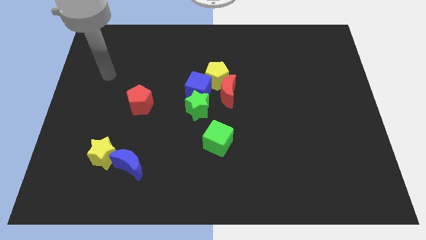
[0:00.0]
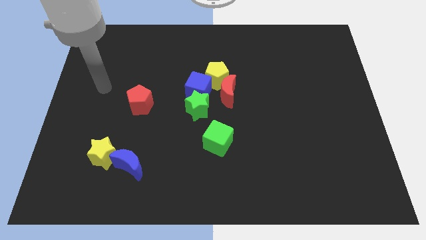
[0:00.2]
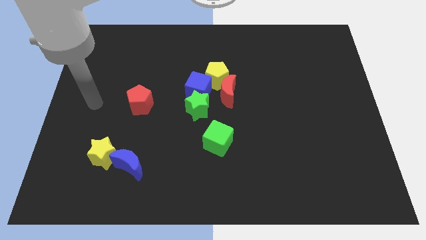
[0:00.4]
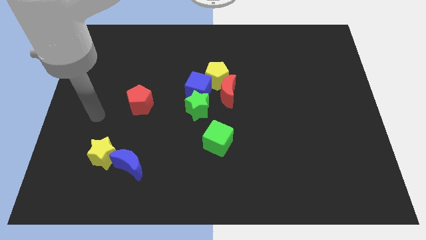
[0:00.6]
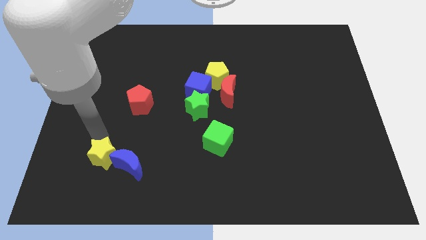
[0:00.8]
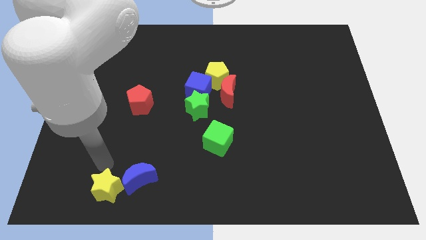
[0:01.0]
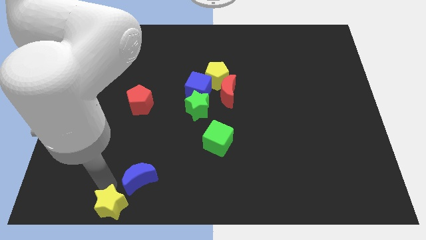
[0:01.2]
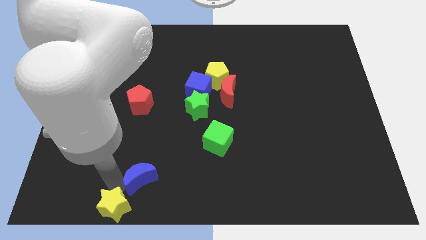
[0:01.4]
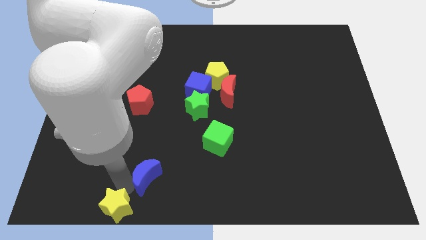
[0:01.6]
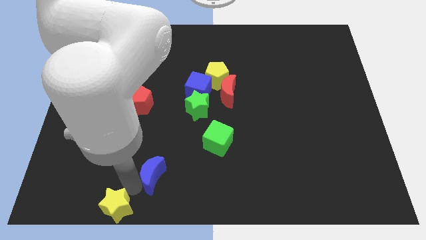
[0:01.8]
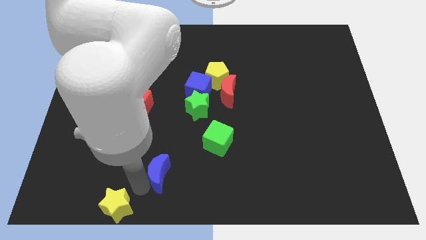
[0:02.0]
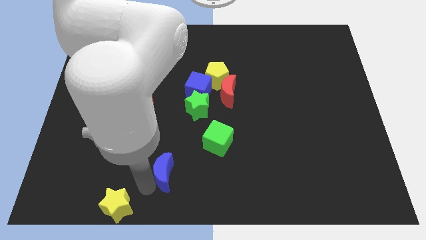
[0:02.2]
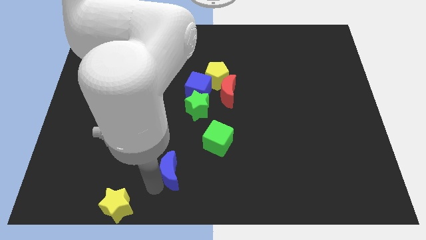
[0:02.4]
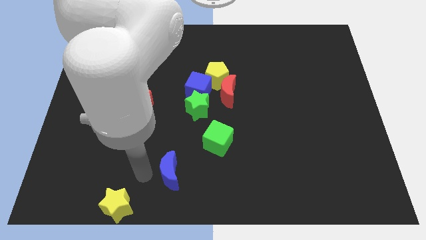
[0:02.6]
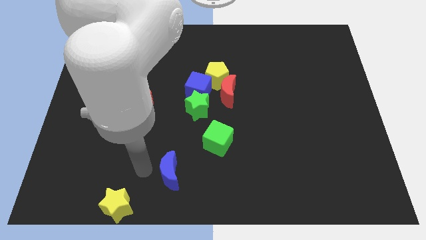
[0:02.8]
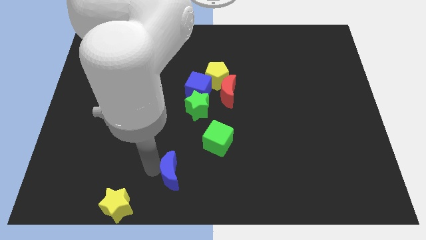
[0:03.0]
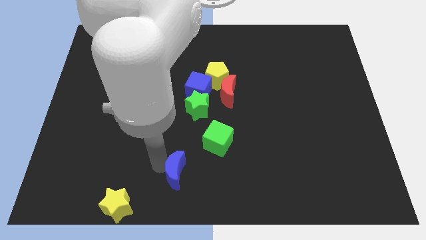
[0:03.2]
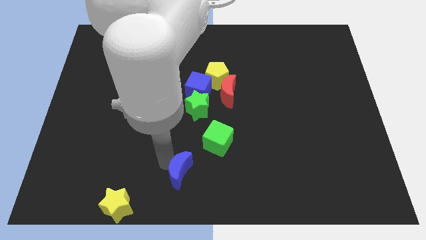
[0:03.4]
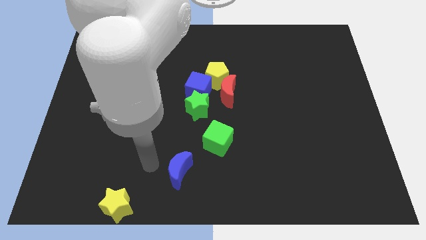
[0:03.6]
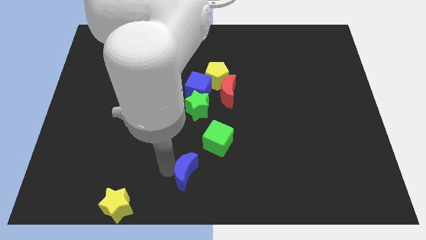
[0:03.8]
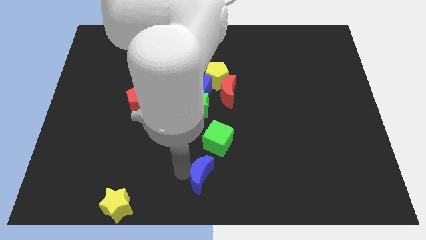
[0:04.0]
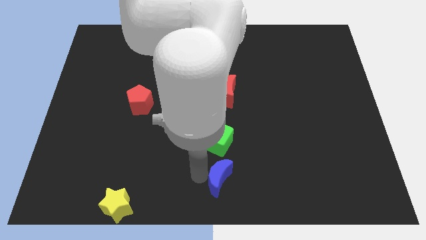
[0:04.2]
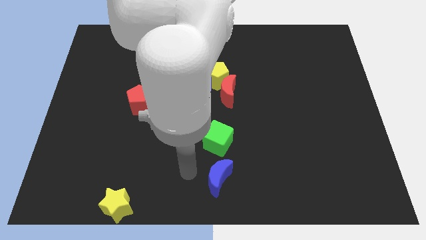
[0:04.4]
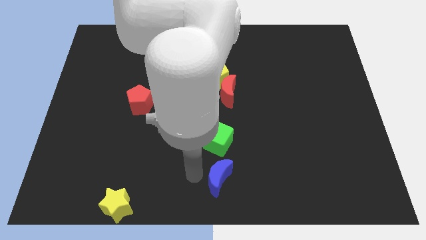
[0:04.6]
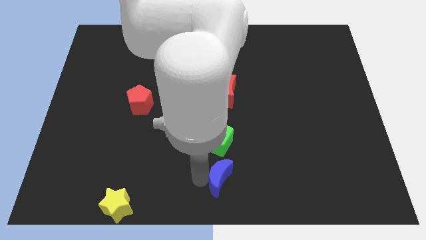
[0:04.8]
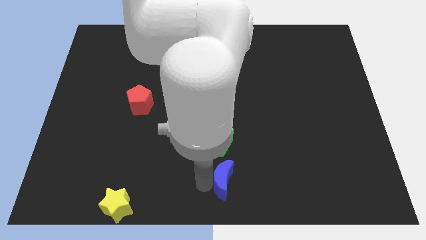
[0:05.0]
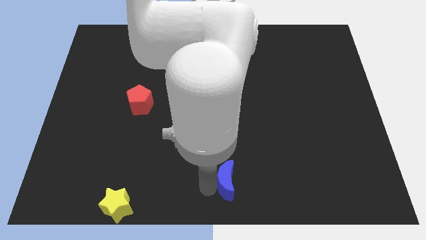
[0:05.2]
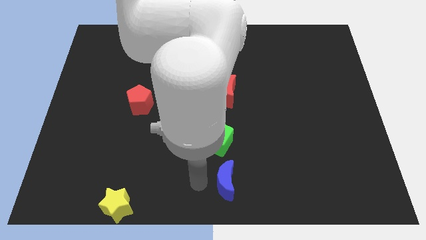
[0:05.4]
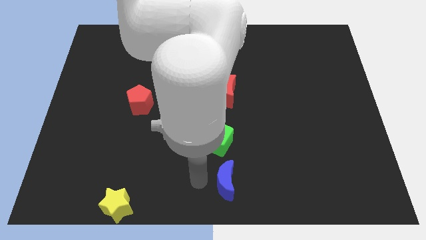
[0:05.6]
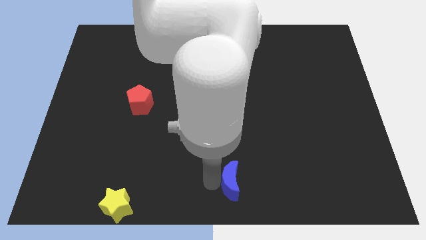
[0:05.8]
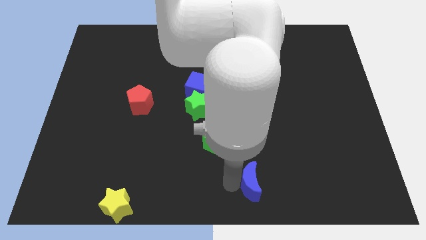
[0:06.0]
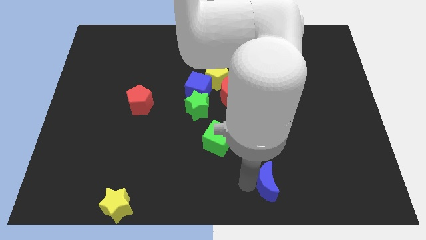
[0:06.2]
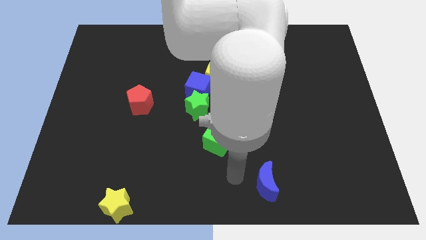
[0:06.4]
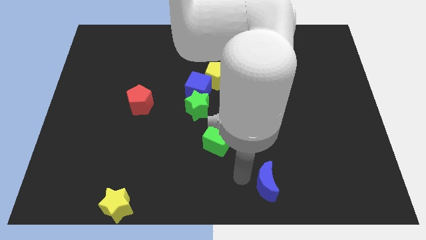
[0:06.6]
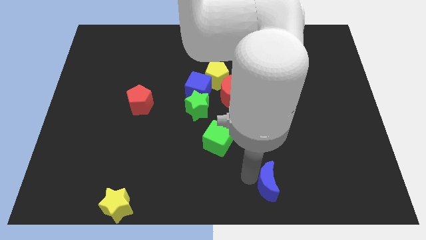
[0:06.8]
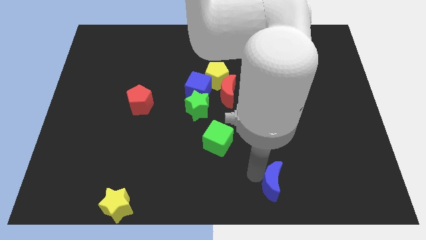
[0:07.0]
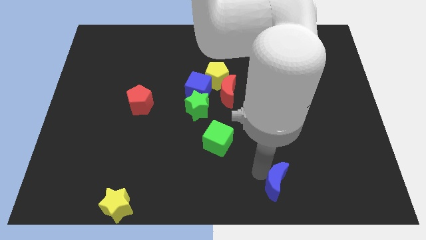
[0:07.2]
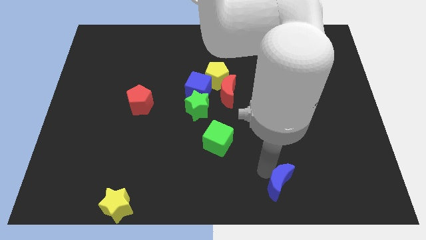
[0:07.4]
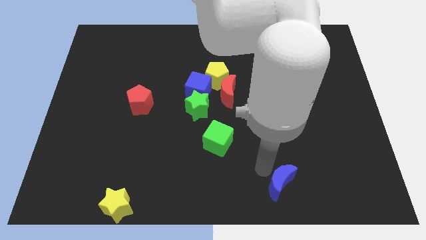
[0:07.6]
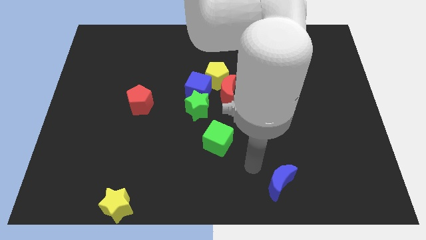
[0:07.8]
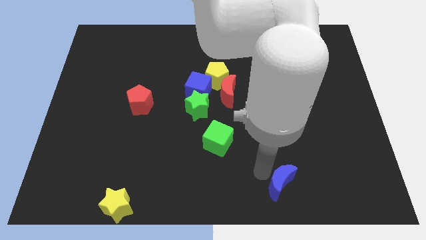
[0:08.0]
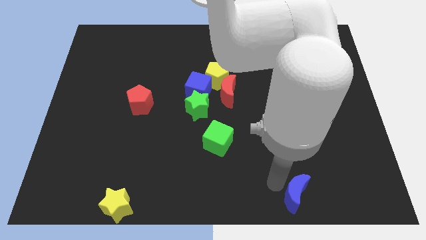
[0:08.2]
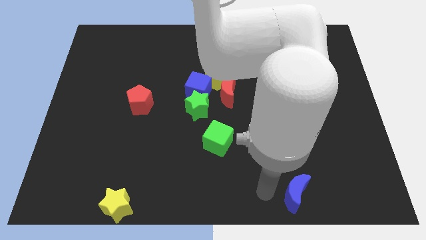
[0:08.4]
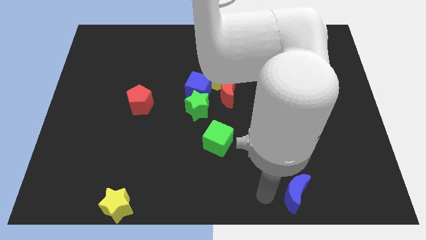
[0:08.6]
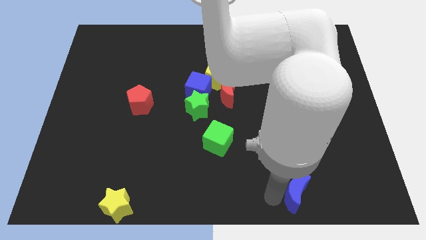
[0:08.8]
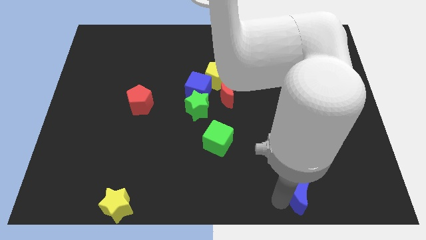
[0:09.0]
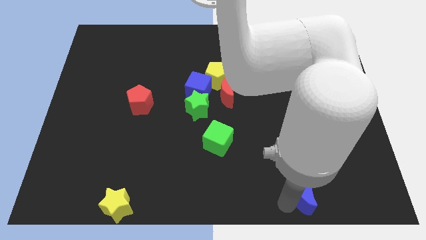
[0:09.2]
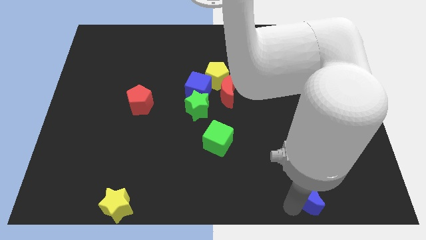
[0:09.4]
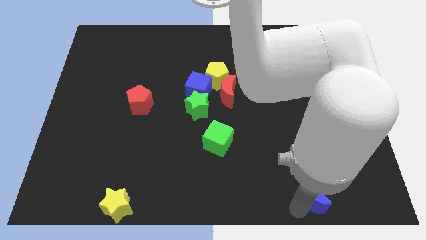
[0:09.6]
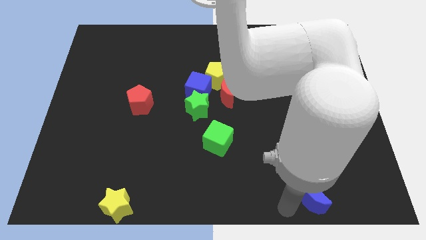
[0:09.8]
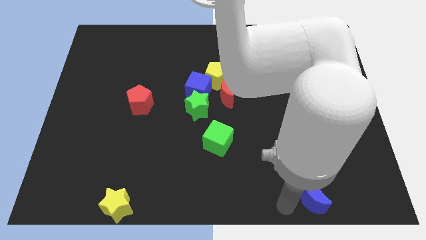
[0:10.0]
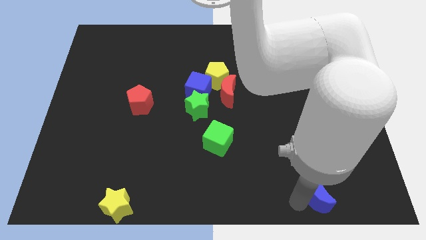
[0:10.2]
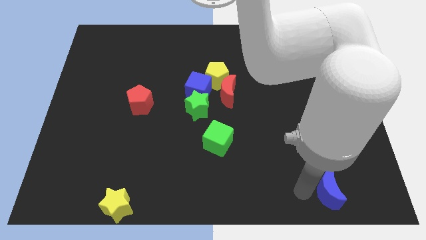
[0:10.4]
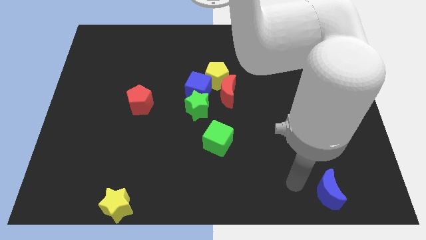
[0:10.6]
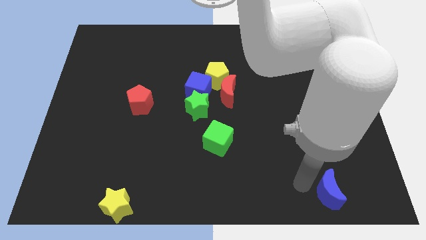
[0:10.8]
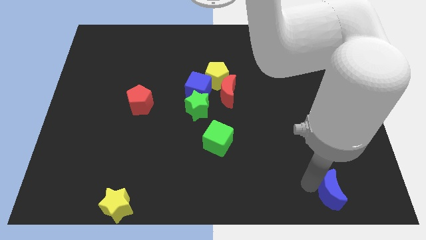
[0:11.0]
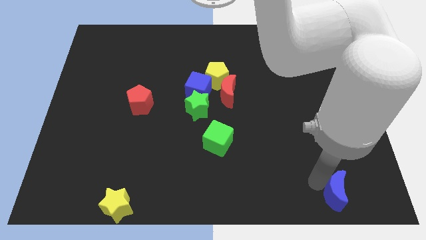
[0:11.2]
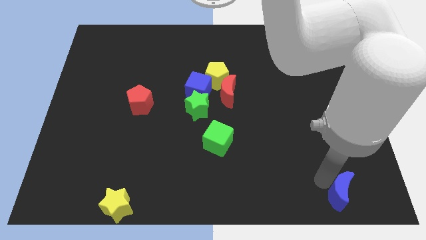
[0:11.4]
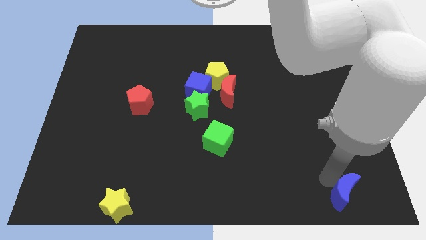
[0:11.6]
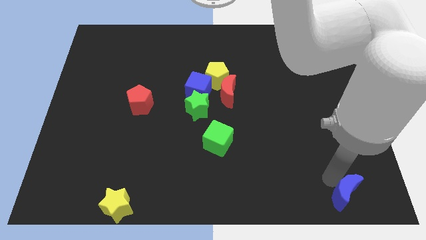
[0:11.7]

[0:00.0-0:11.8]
put the blue moon to the bottom right of the board

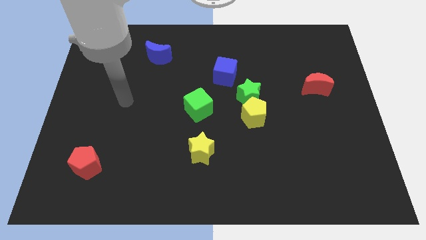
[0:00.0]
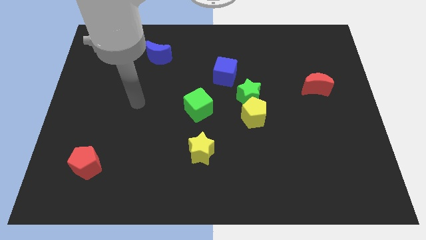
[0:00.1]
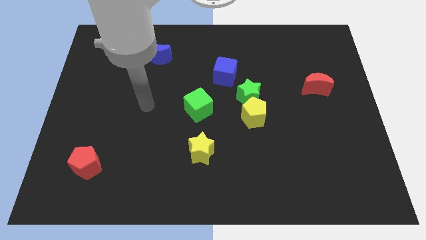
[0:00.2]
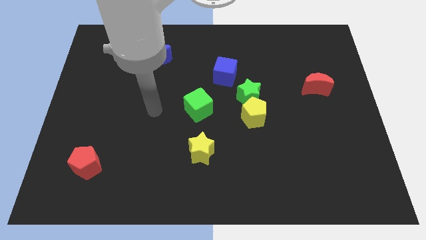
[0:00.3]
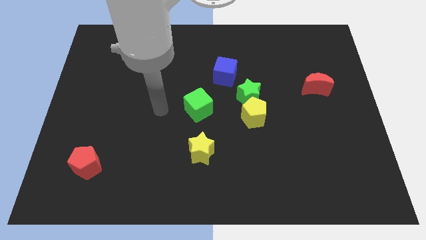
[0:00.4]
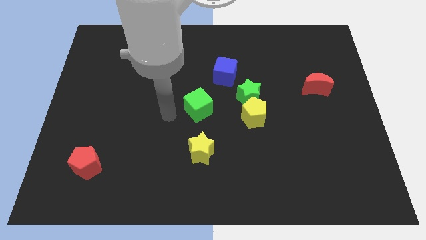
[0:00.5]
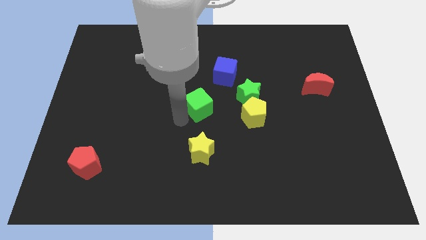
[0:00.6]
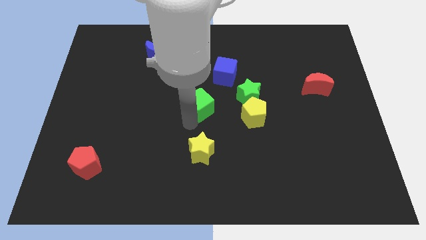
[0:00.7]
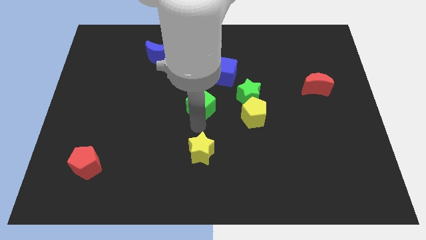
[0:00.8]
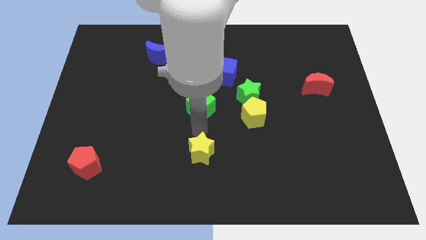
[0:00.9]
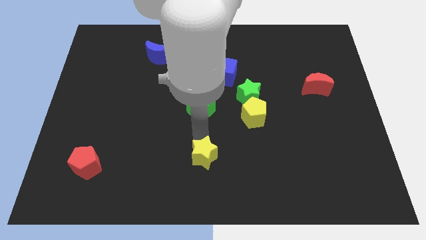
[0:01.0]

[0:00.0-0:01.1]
put the yellow star to the bottom
